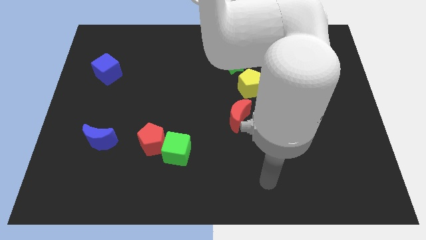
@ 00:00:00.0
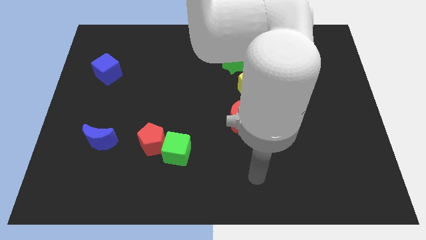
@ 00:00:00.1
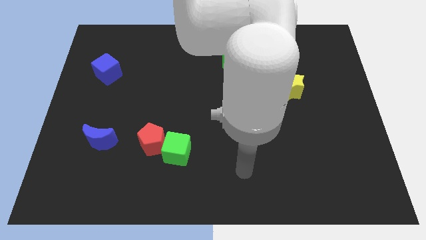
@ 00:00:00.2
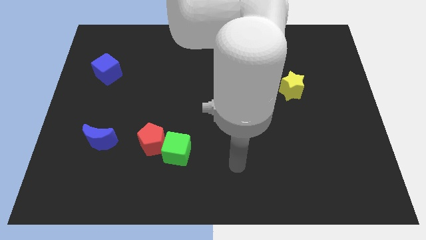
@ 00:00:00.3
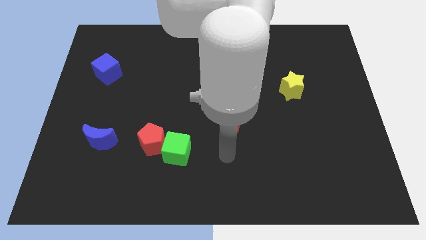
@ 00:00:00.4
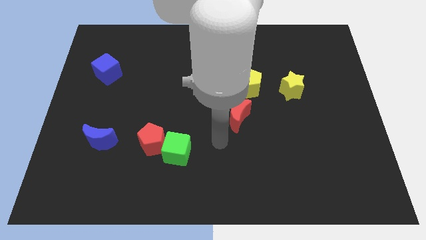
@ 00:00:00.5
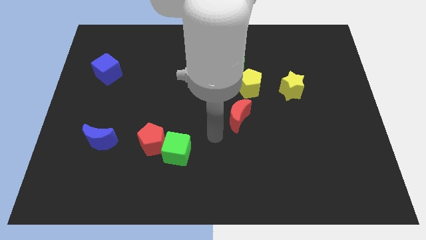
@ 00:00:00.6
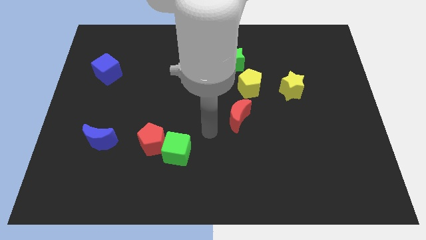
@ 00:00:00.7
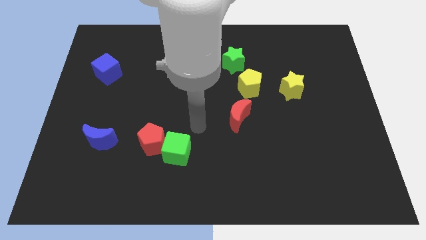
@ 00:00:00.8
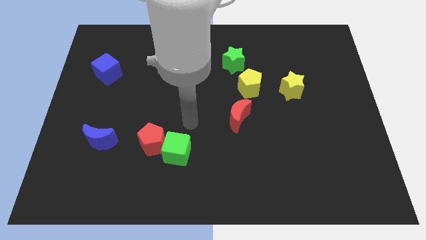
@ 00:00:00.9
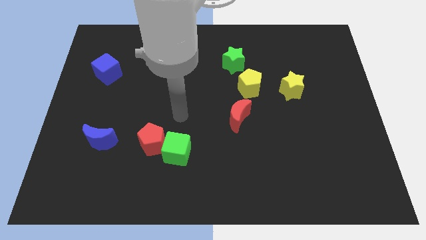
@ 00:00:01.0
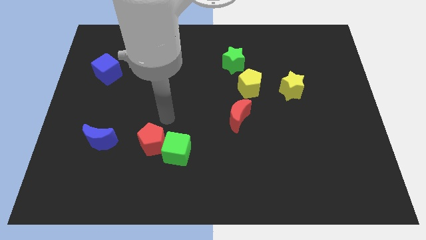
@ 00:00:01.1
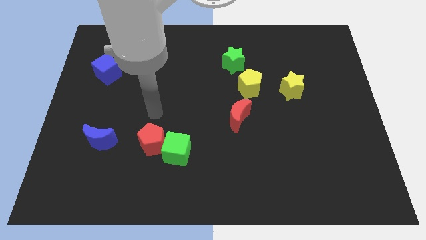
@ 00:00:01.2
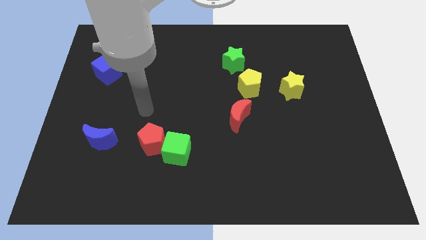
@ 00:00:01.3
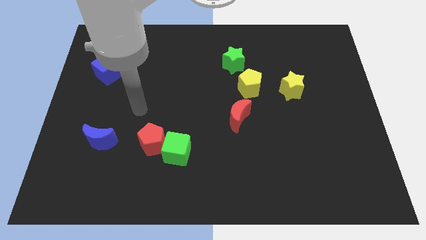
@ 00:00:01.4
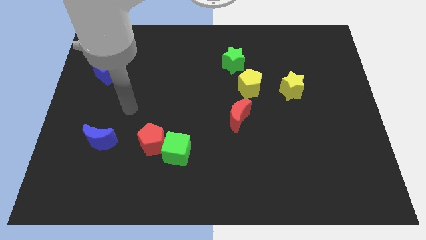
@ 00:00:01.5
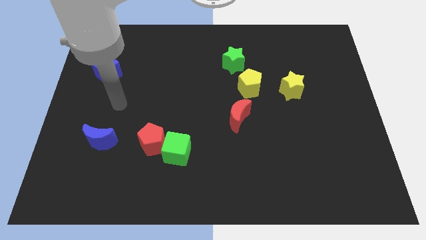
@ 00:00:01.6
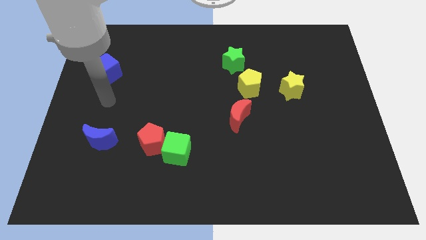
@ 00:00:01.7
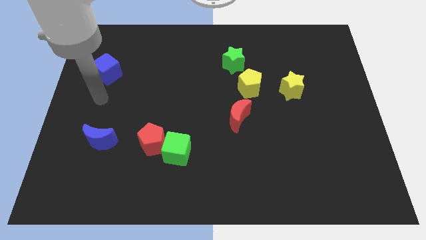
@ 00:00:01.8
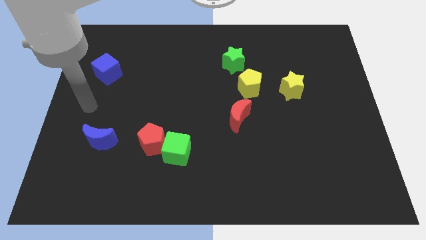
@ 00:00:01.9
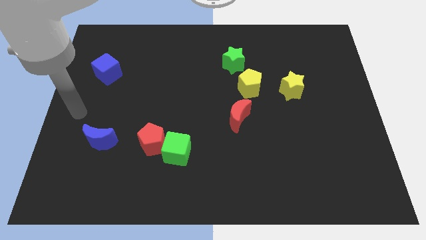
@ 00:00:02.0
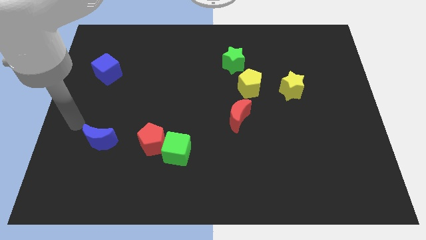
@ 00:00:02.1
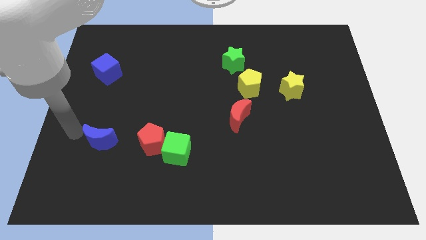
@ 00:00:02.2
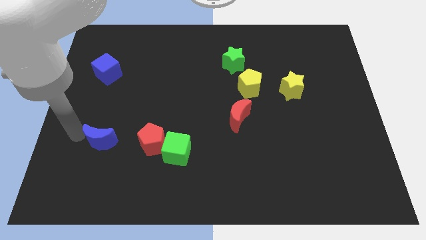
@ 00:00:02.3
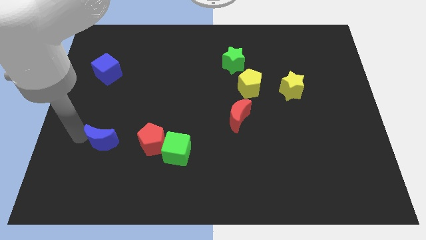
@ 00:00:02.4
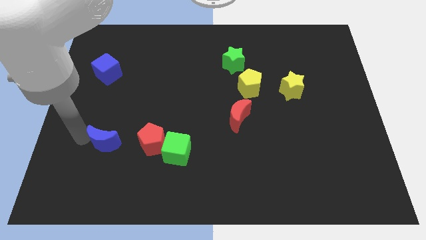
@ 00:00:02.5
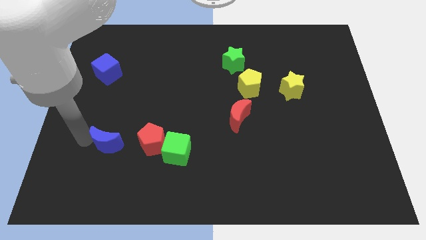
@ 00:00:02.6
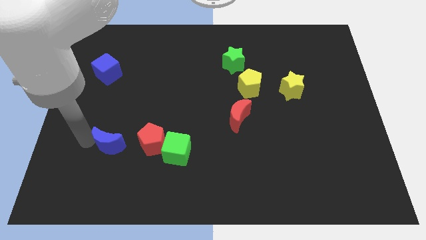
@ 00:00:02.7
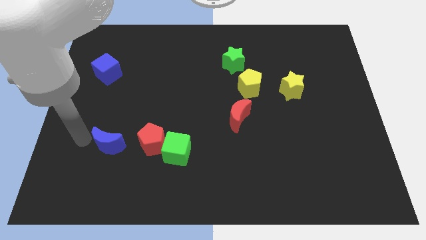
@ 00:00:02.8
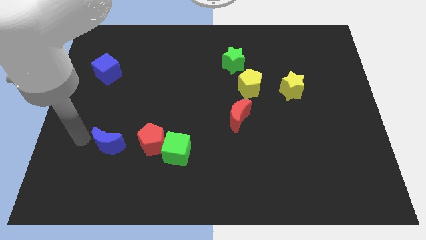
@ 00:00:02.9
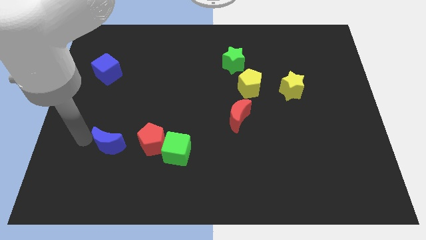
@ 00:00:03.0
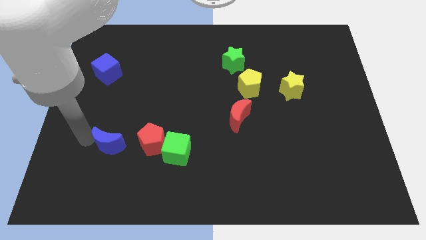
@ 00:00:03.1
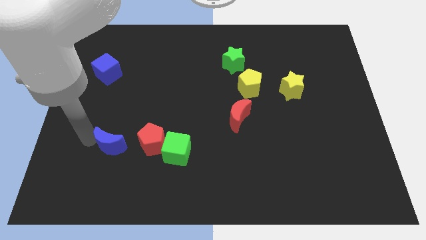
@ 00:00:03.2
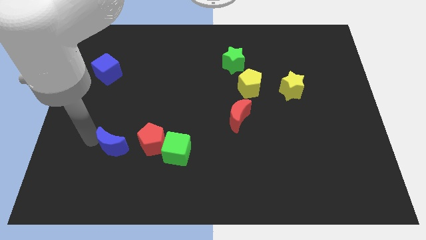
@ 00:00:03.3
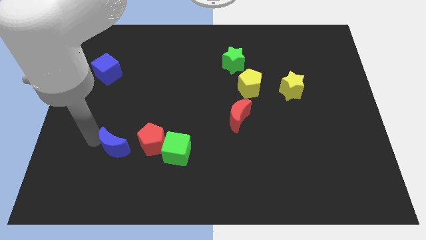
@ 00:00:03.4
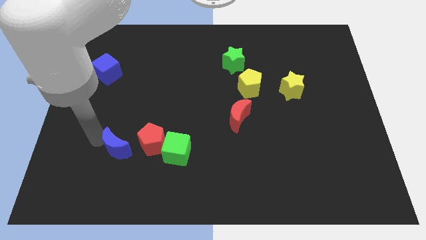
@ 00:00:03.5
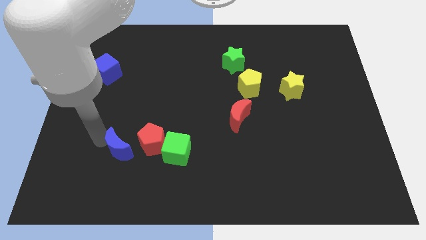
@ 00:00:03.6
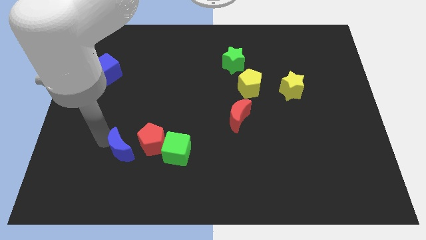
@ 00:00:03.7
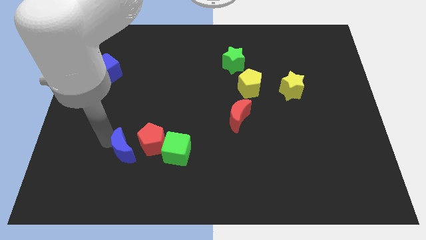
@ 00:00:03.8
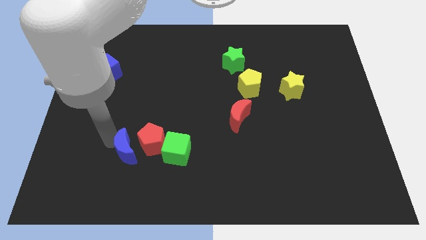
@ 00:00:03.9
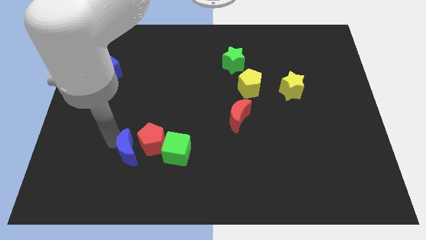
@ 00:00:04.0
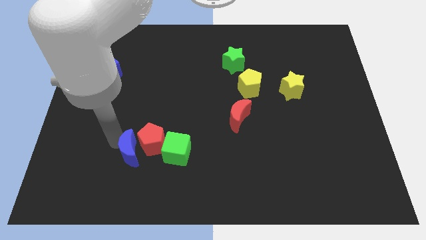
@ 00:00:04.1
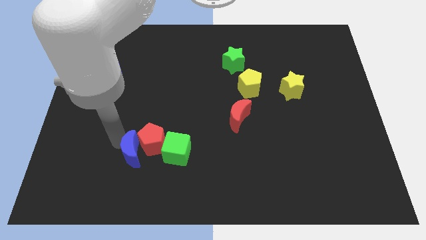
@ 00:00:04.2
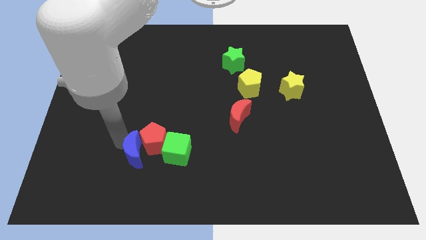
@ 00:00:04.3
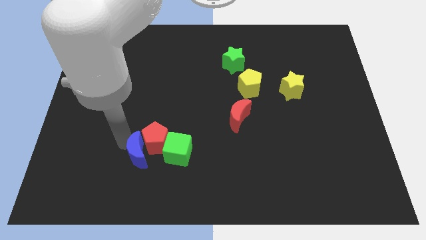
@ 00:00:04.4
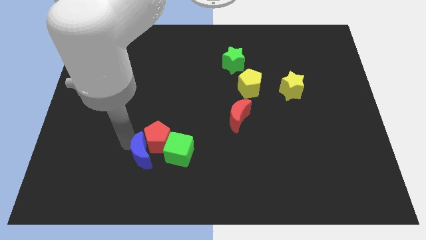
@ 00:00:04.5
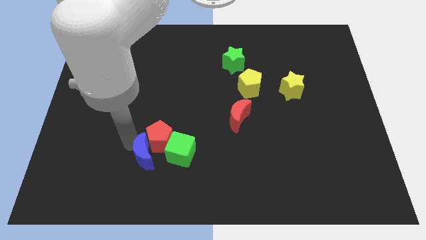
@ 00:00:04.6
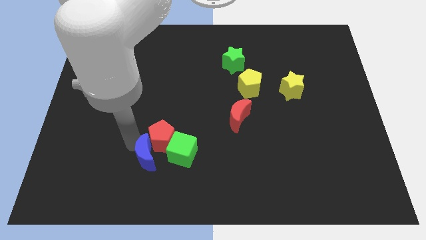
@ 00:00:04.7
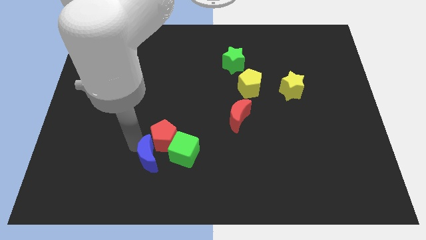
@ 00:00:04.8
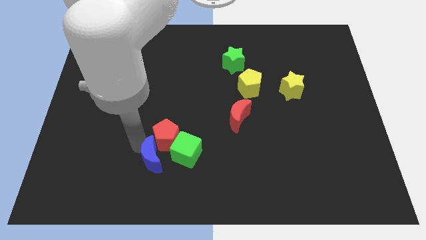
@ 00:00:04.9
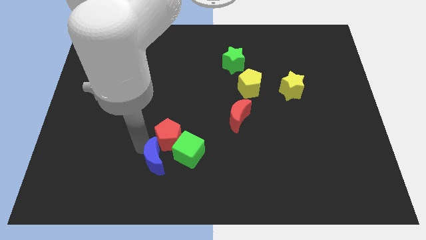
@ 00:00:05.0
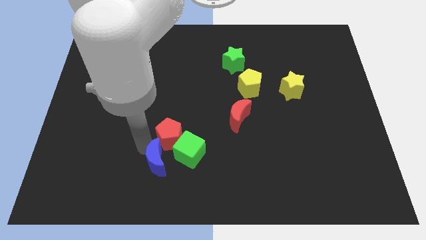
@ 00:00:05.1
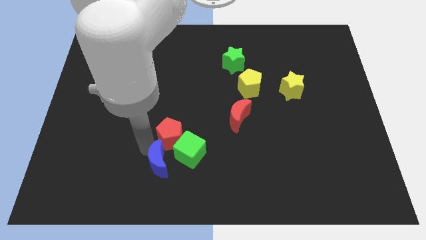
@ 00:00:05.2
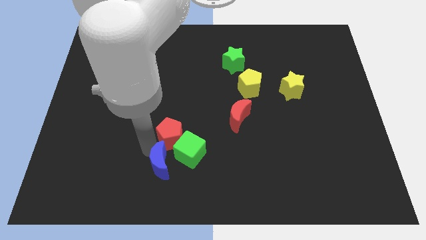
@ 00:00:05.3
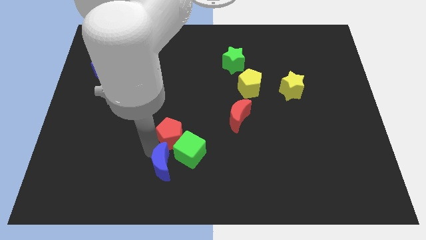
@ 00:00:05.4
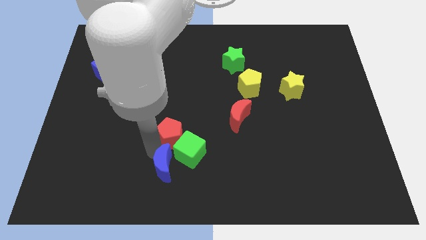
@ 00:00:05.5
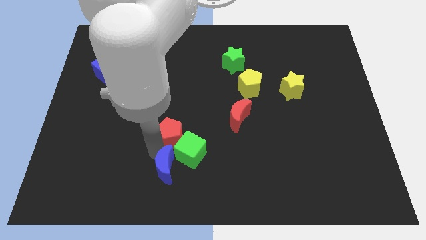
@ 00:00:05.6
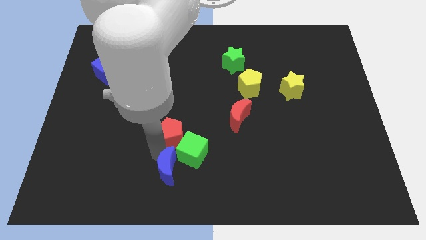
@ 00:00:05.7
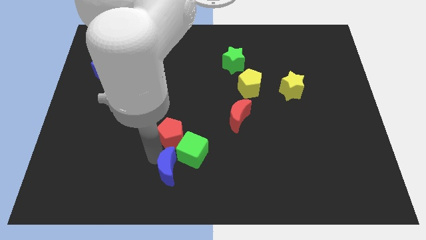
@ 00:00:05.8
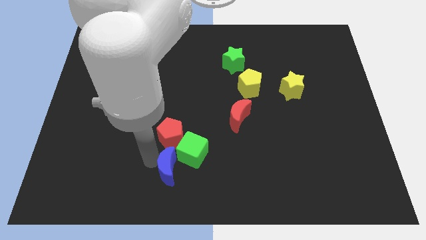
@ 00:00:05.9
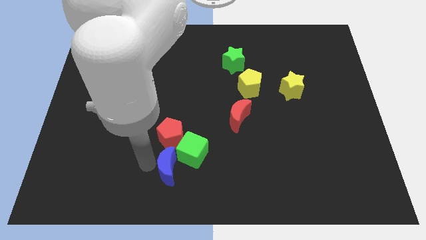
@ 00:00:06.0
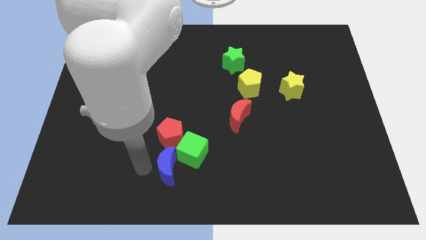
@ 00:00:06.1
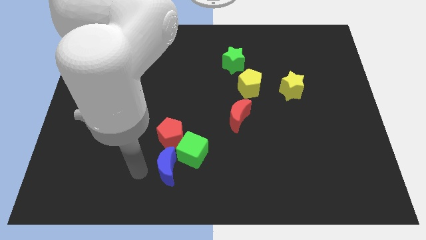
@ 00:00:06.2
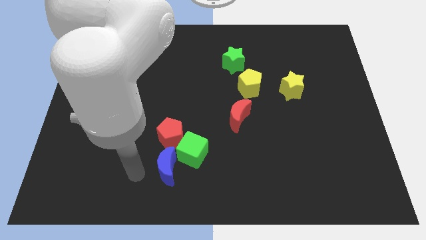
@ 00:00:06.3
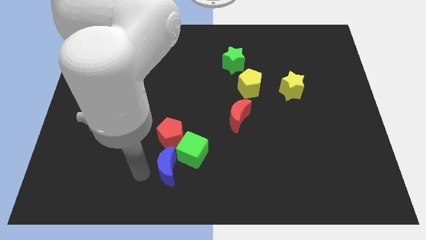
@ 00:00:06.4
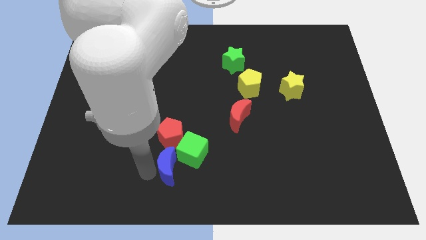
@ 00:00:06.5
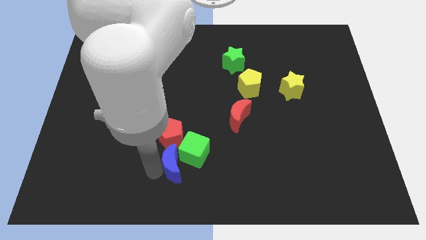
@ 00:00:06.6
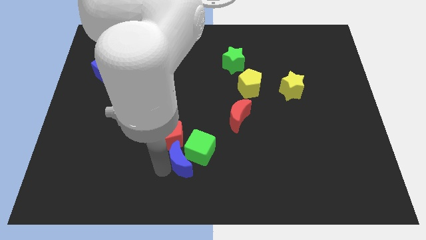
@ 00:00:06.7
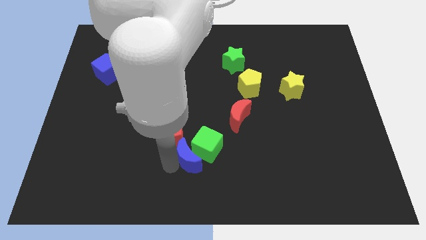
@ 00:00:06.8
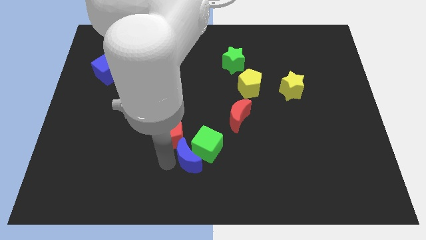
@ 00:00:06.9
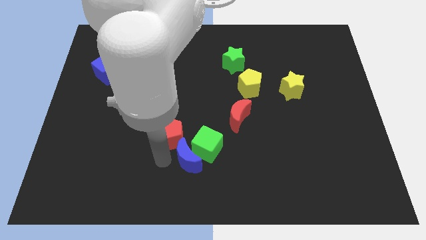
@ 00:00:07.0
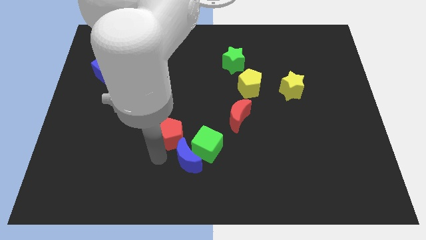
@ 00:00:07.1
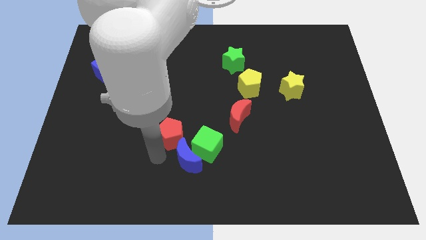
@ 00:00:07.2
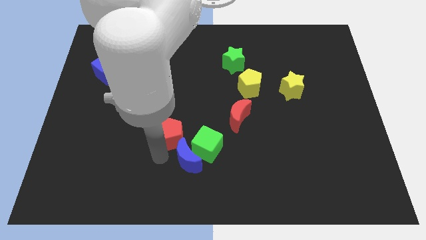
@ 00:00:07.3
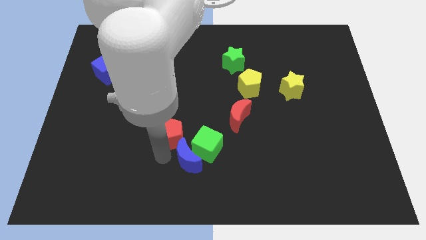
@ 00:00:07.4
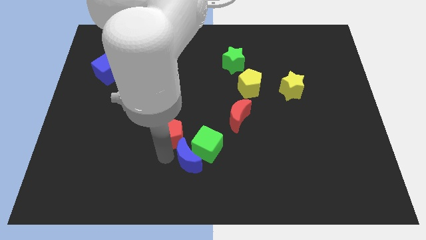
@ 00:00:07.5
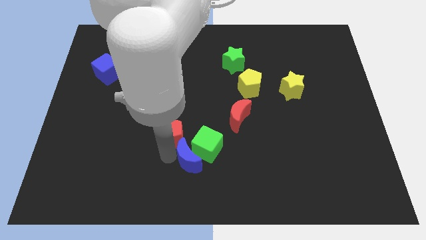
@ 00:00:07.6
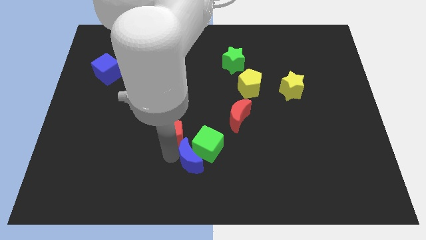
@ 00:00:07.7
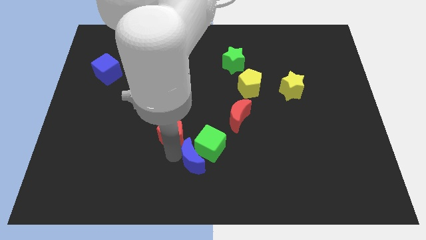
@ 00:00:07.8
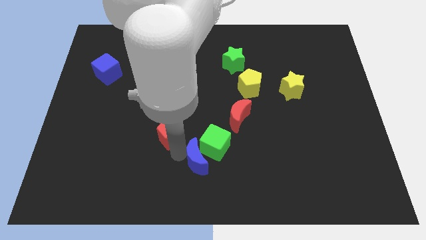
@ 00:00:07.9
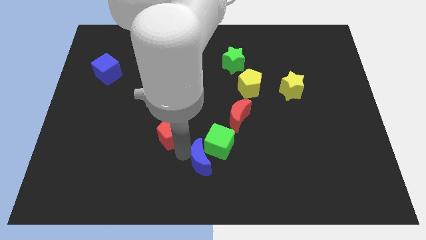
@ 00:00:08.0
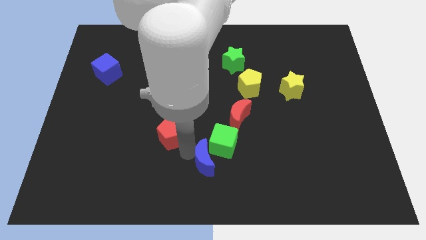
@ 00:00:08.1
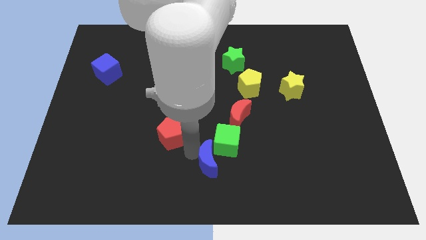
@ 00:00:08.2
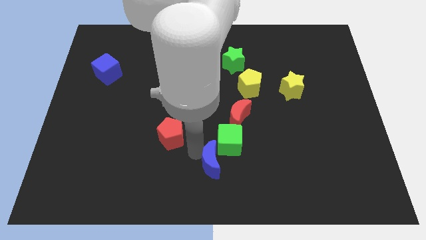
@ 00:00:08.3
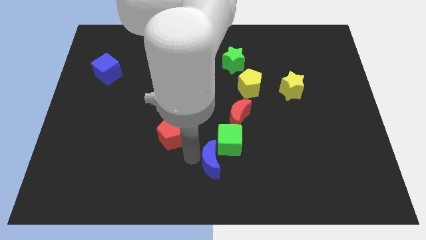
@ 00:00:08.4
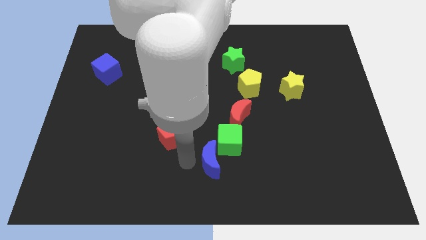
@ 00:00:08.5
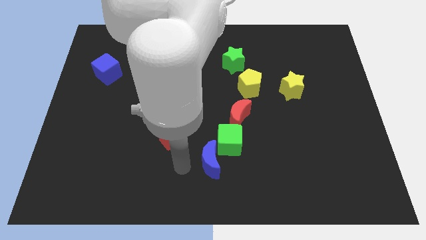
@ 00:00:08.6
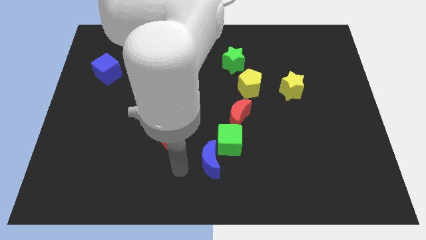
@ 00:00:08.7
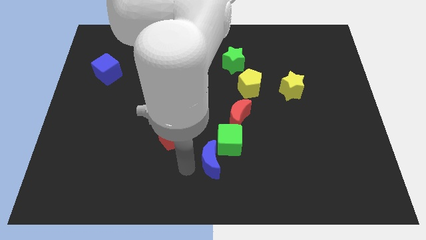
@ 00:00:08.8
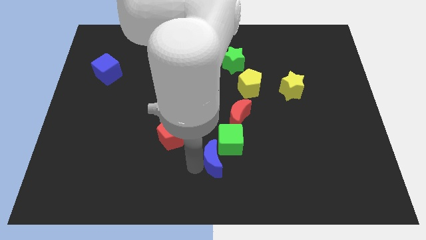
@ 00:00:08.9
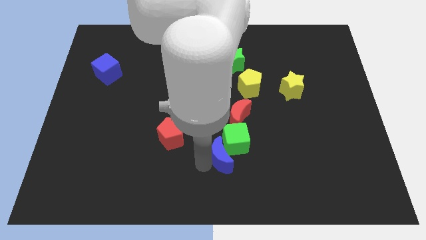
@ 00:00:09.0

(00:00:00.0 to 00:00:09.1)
put the blue moon to the bottom side of the red moon
